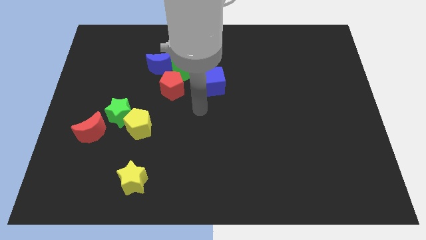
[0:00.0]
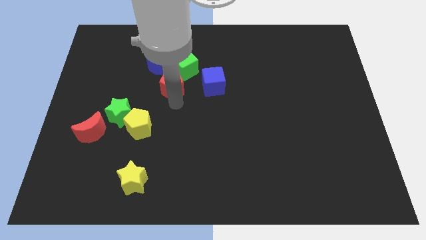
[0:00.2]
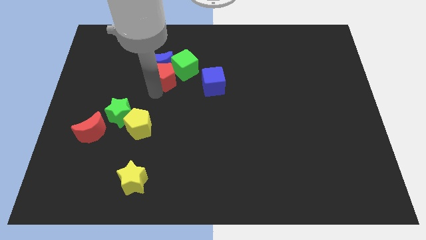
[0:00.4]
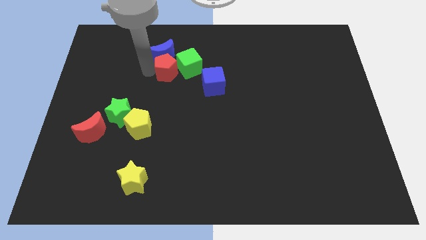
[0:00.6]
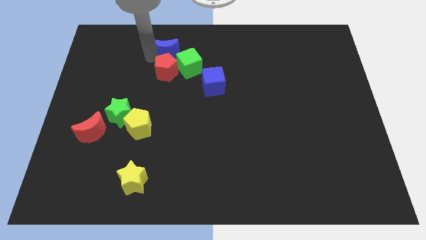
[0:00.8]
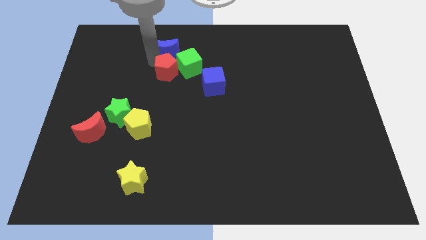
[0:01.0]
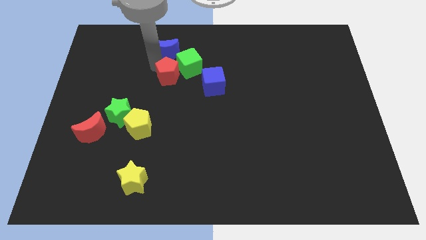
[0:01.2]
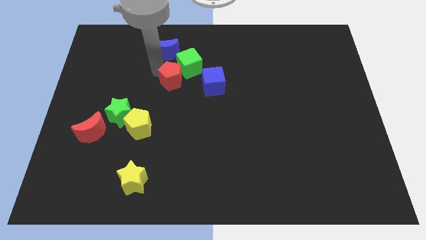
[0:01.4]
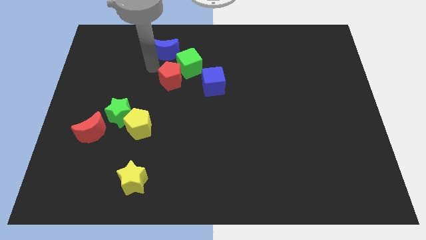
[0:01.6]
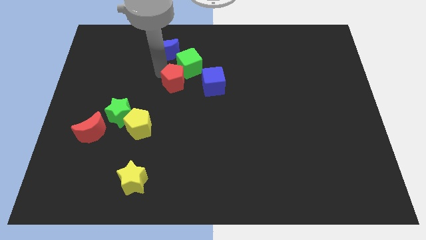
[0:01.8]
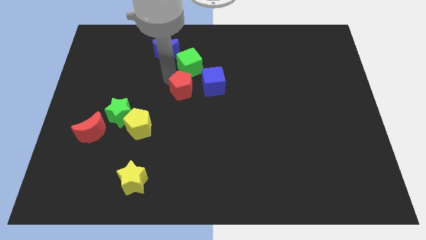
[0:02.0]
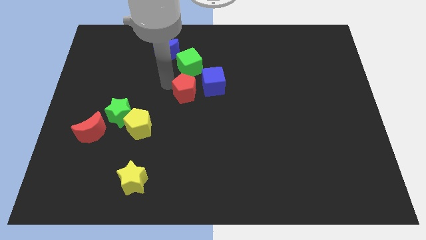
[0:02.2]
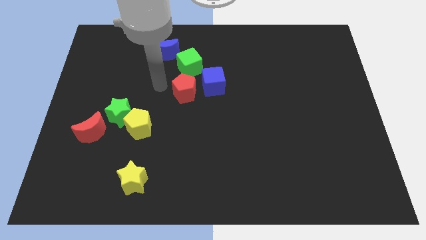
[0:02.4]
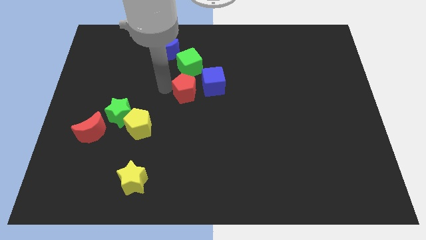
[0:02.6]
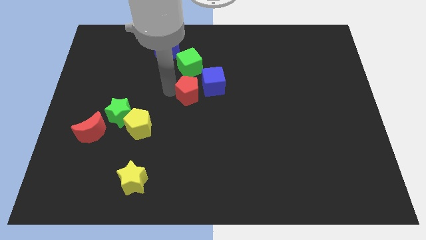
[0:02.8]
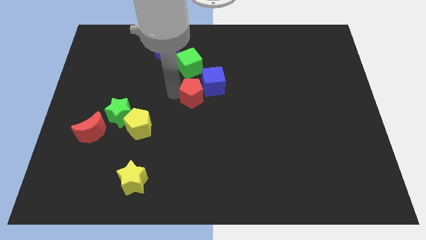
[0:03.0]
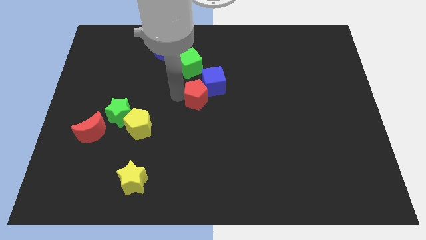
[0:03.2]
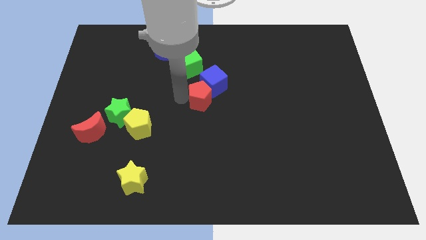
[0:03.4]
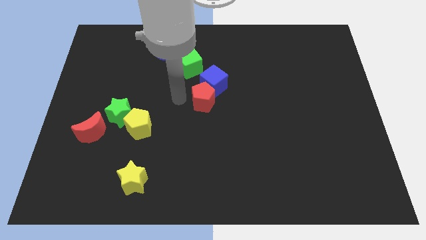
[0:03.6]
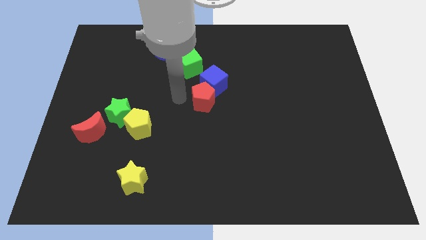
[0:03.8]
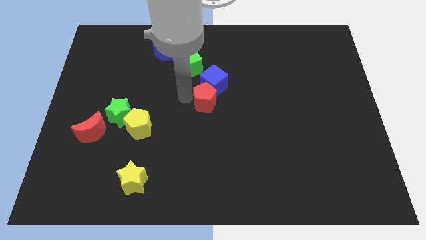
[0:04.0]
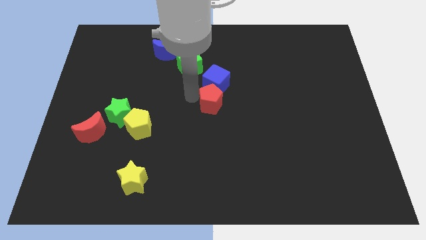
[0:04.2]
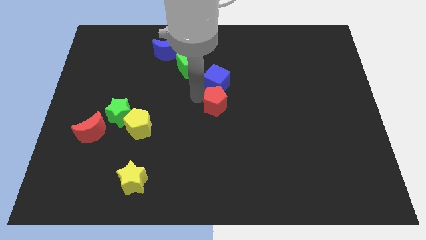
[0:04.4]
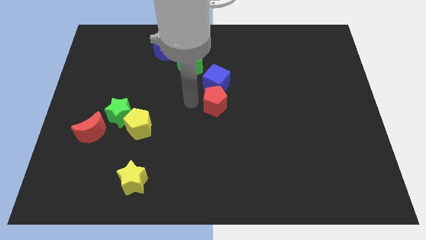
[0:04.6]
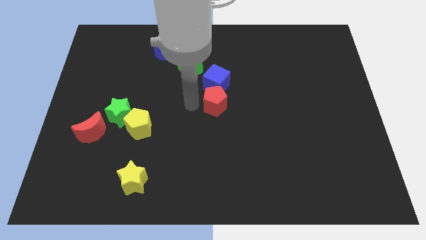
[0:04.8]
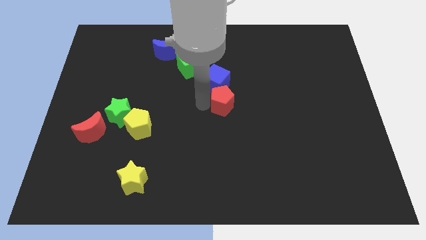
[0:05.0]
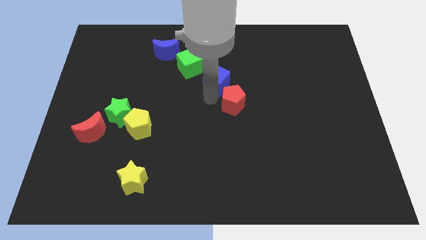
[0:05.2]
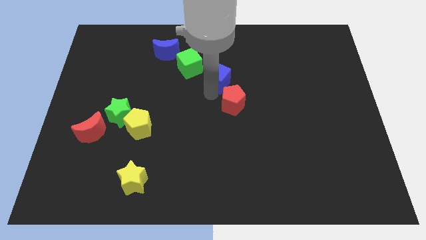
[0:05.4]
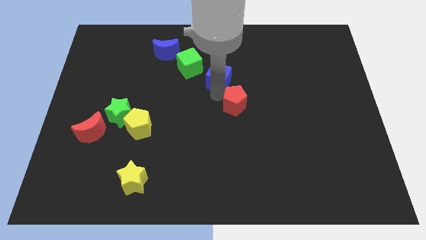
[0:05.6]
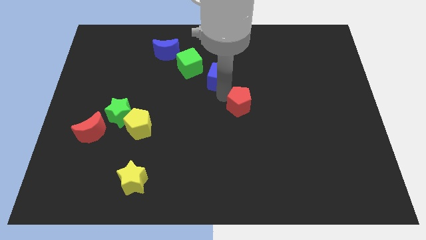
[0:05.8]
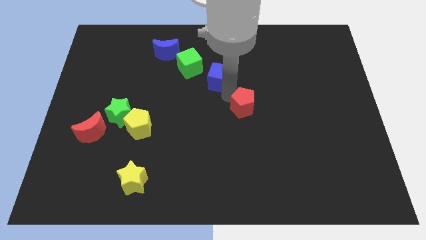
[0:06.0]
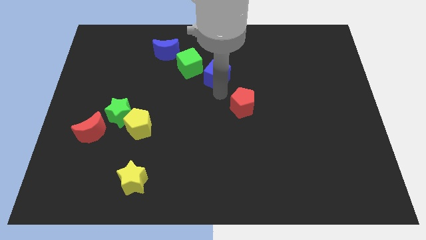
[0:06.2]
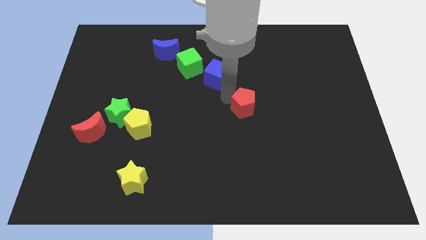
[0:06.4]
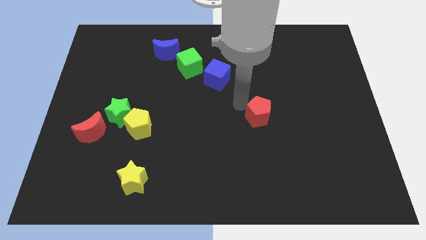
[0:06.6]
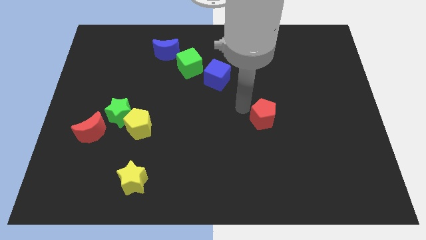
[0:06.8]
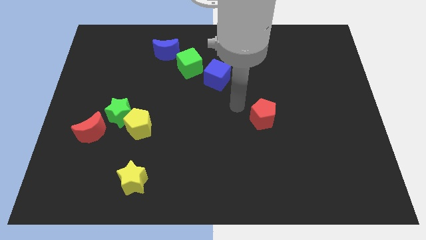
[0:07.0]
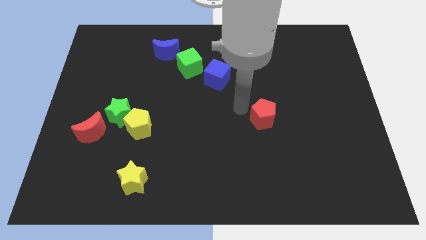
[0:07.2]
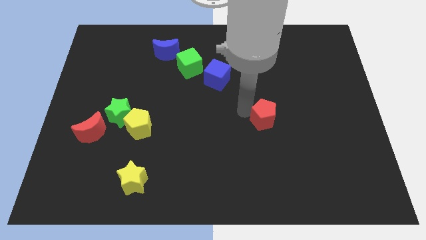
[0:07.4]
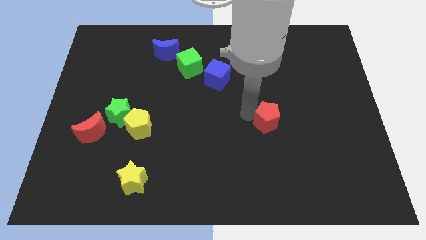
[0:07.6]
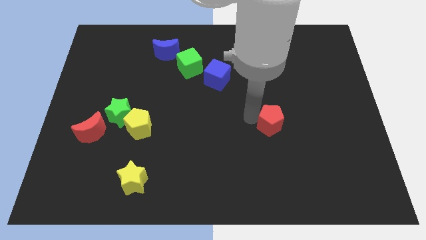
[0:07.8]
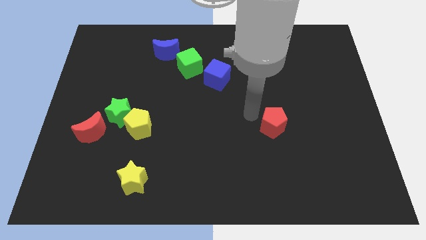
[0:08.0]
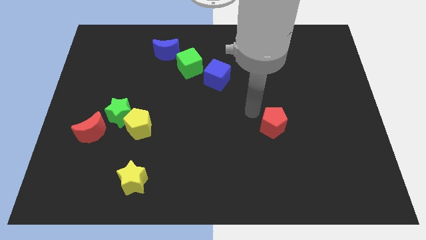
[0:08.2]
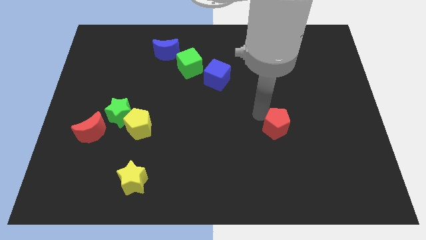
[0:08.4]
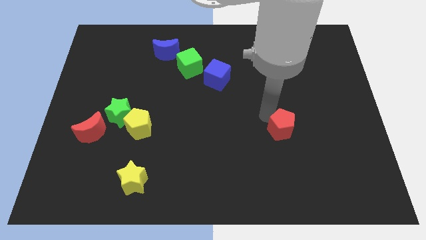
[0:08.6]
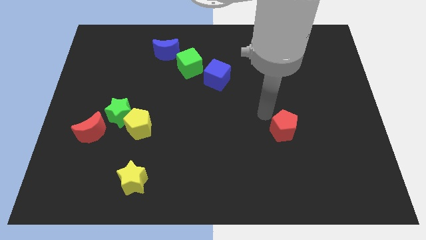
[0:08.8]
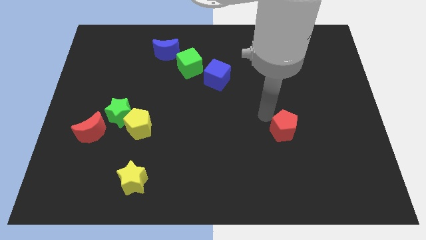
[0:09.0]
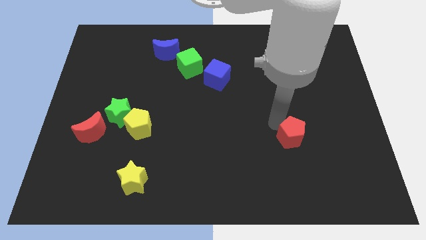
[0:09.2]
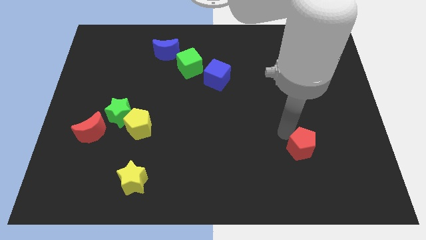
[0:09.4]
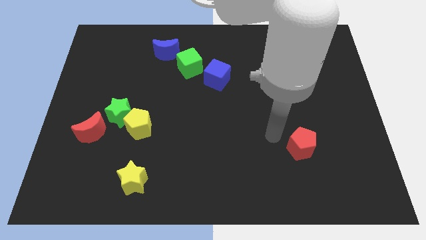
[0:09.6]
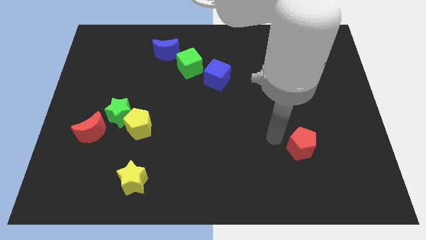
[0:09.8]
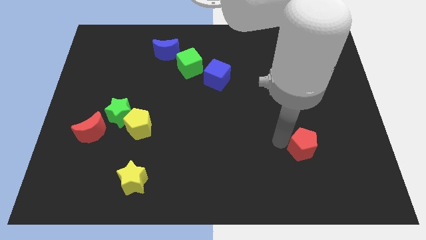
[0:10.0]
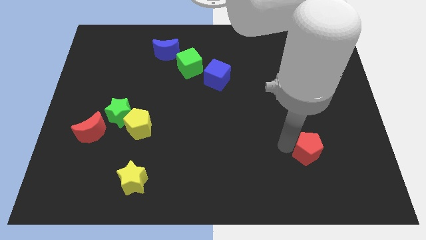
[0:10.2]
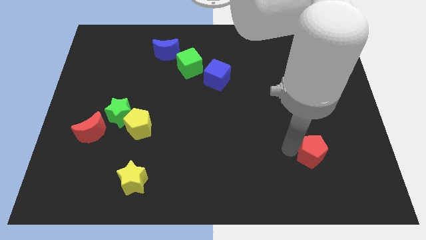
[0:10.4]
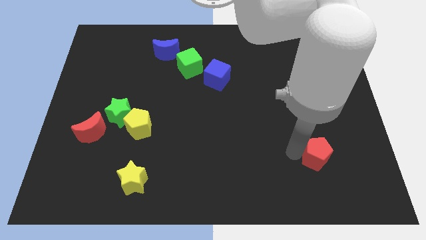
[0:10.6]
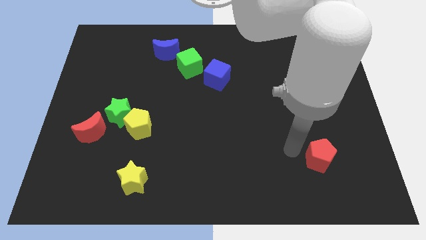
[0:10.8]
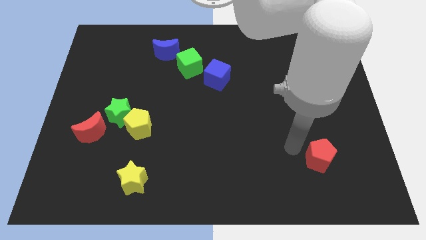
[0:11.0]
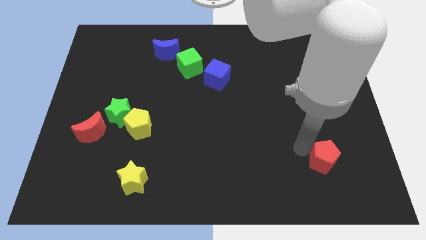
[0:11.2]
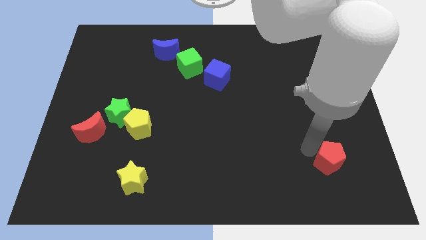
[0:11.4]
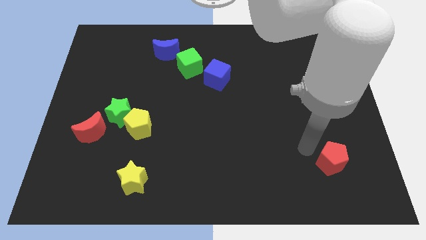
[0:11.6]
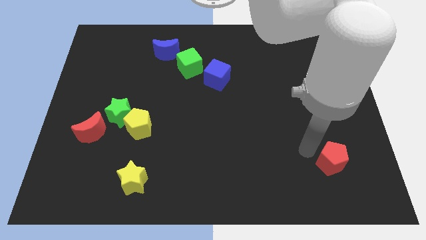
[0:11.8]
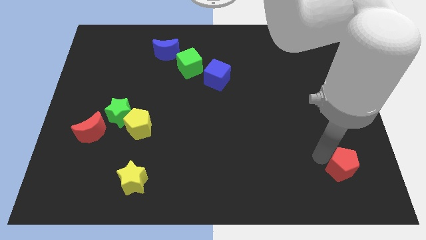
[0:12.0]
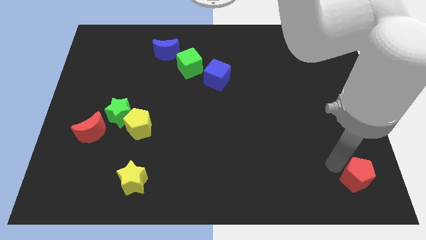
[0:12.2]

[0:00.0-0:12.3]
push the red pentagon to the bottom right of the board
